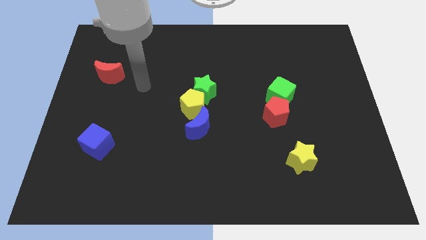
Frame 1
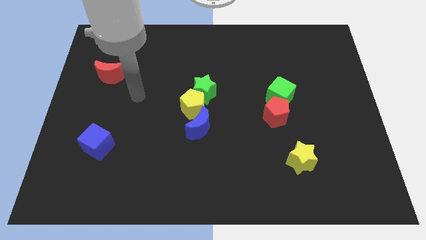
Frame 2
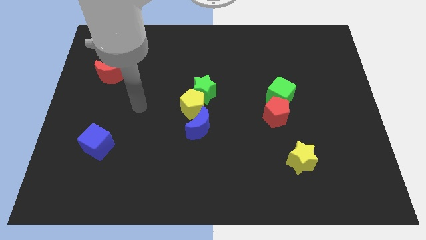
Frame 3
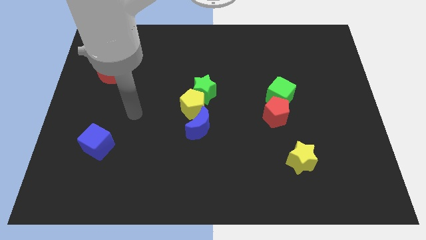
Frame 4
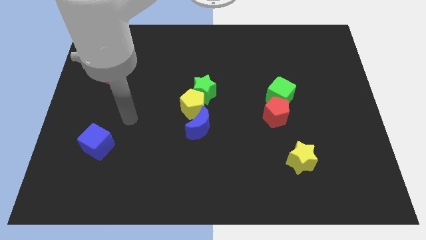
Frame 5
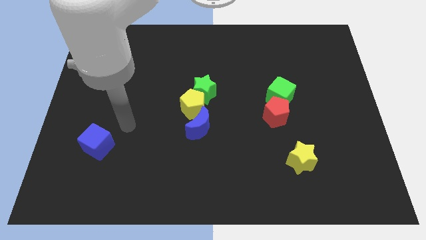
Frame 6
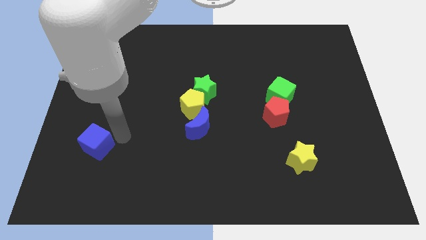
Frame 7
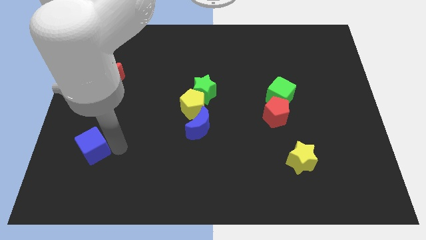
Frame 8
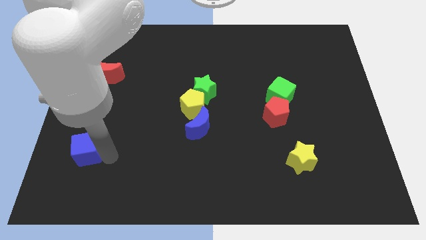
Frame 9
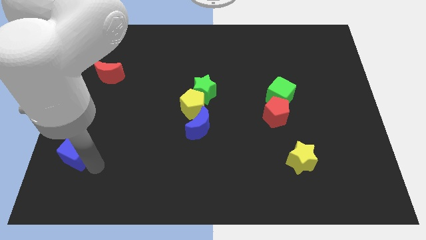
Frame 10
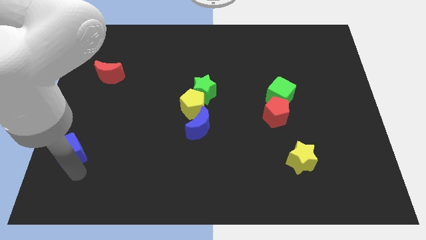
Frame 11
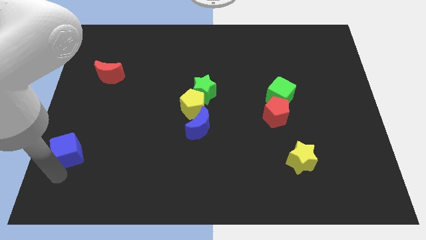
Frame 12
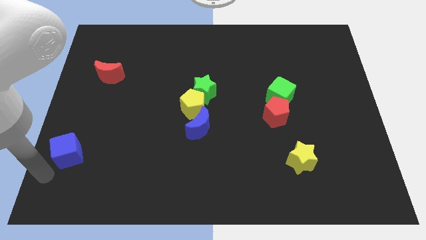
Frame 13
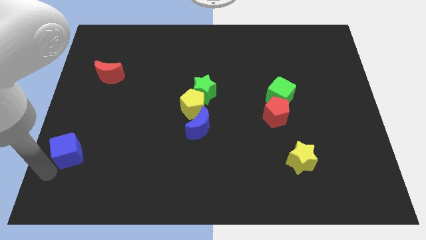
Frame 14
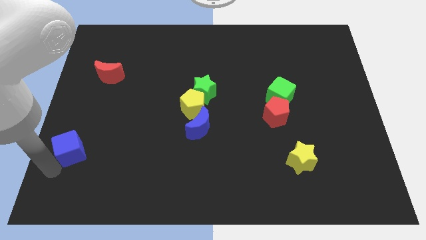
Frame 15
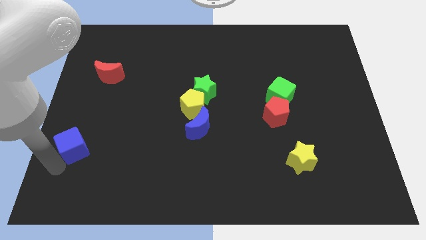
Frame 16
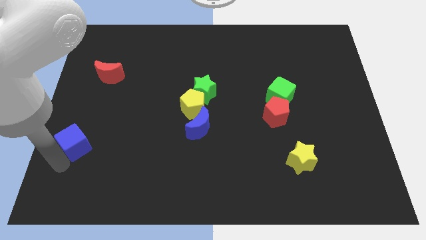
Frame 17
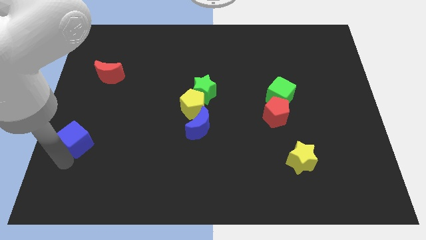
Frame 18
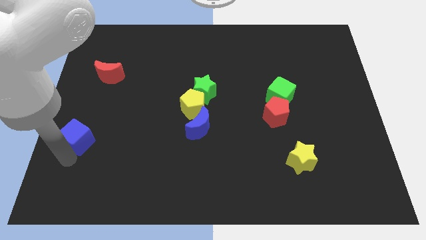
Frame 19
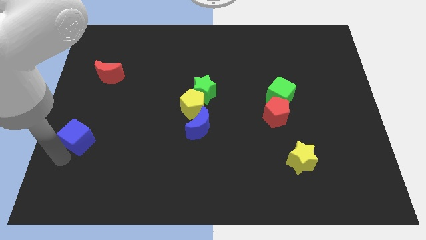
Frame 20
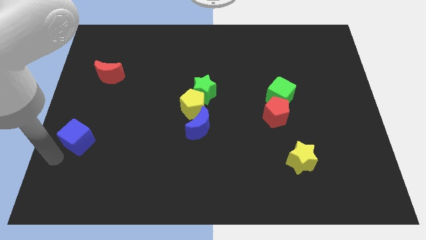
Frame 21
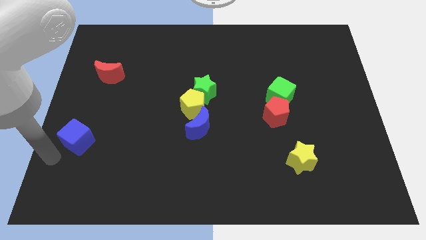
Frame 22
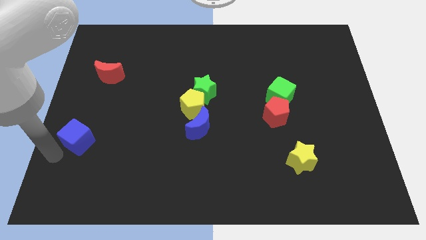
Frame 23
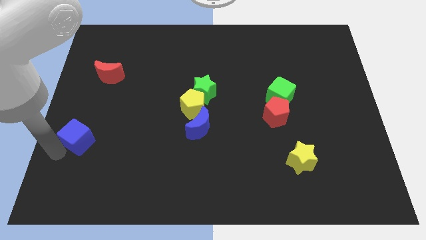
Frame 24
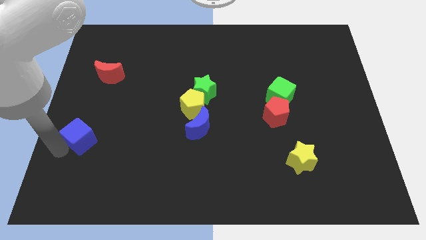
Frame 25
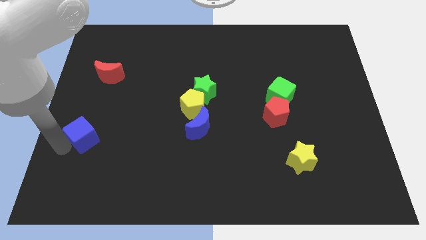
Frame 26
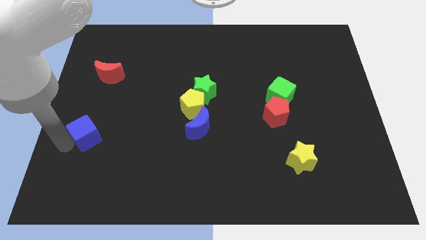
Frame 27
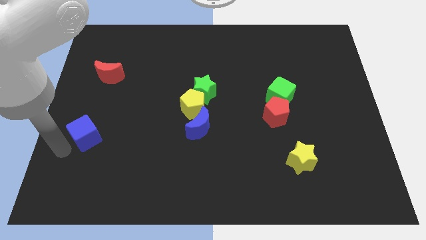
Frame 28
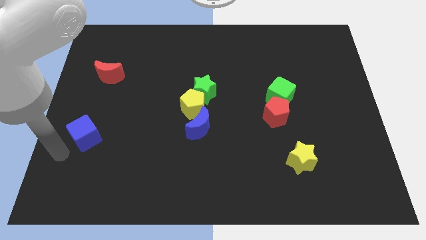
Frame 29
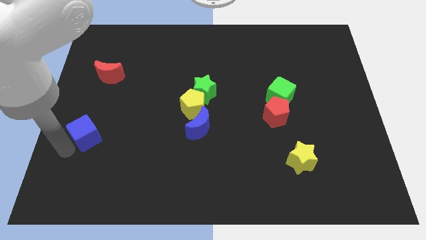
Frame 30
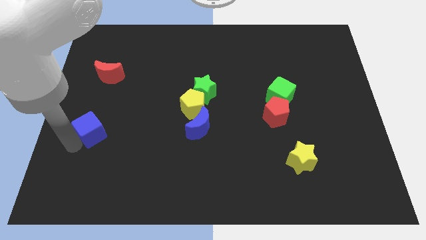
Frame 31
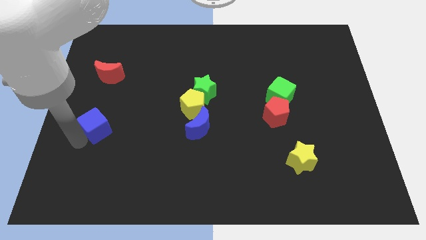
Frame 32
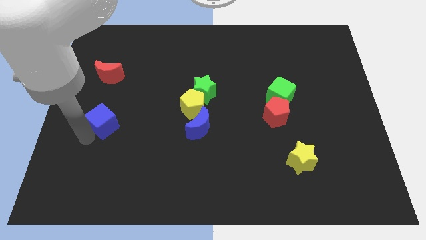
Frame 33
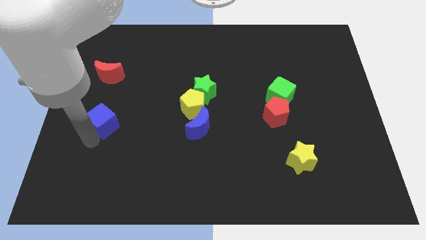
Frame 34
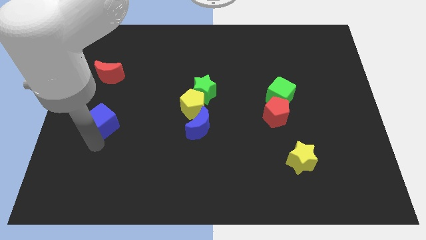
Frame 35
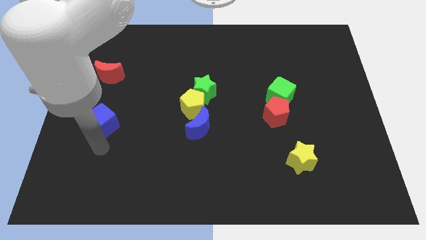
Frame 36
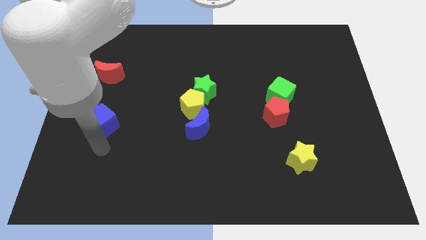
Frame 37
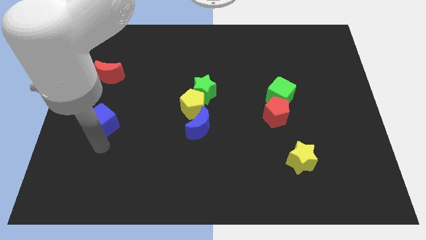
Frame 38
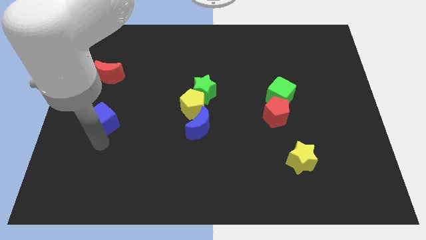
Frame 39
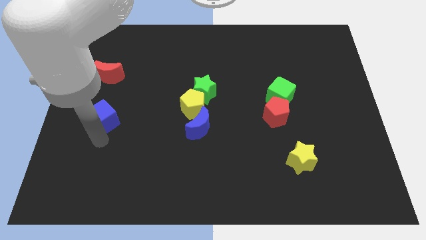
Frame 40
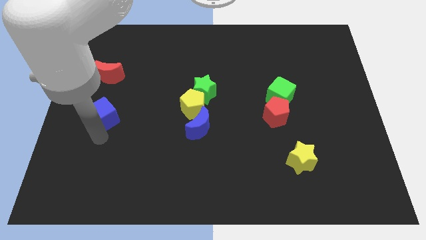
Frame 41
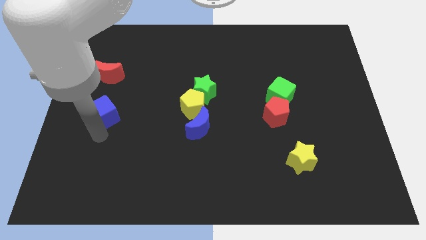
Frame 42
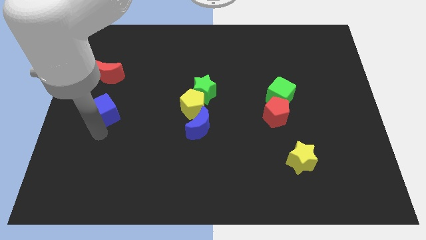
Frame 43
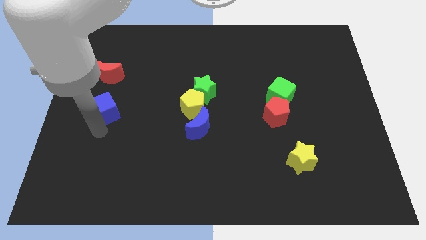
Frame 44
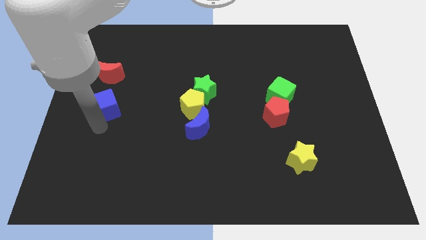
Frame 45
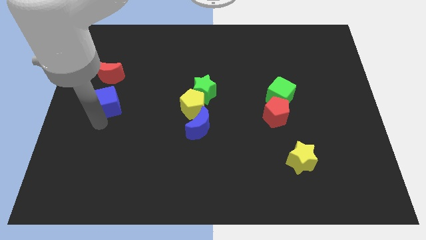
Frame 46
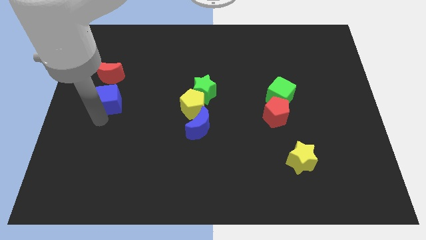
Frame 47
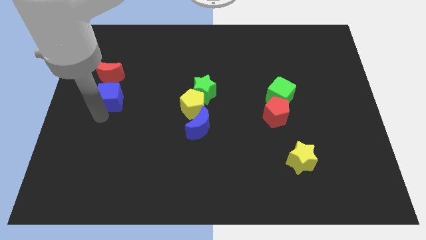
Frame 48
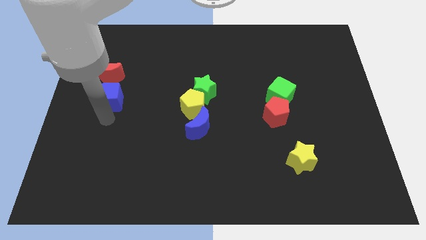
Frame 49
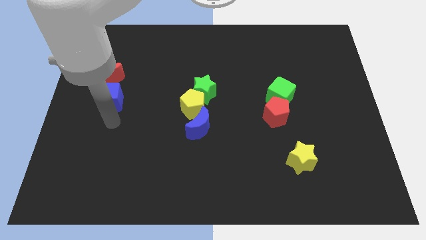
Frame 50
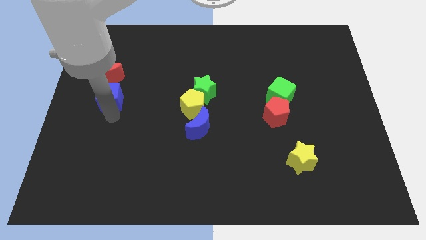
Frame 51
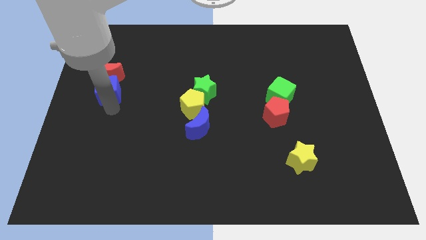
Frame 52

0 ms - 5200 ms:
push the blue cube to the red moon

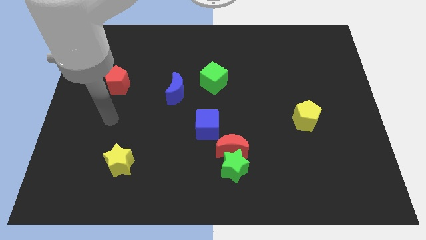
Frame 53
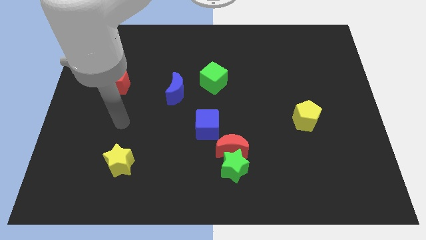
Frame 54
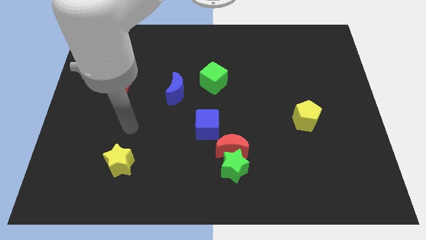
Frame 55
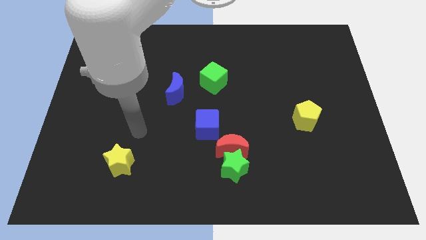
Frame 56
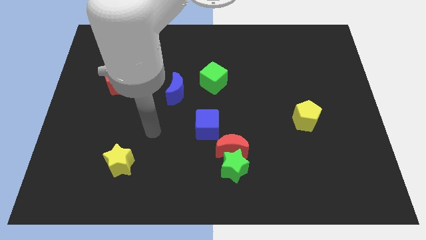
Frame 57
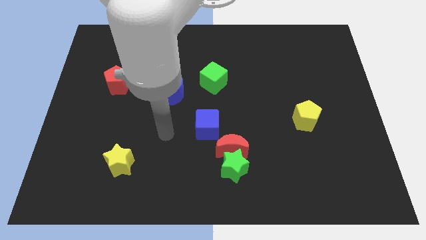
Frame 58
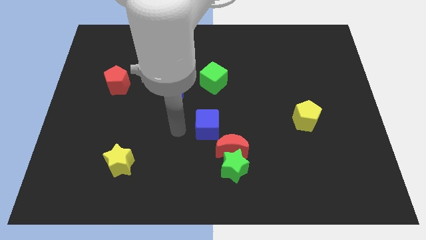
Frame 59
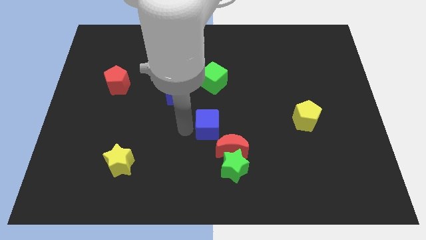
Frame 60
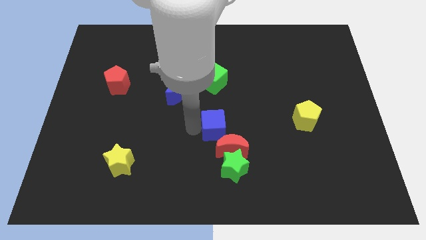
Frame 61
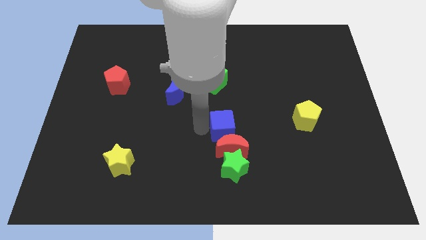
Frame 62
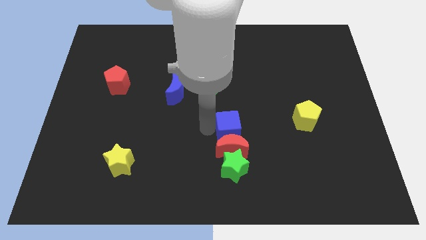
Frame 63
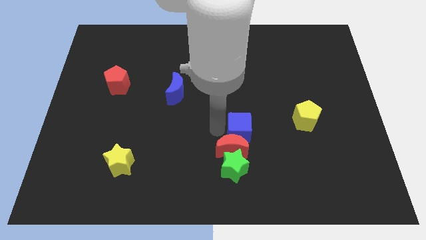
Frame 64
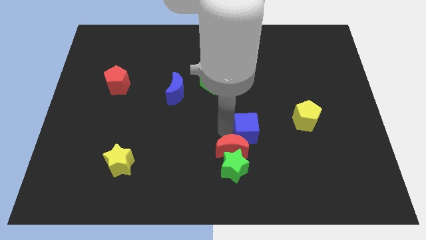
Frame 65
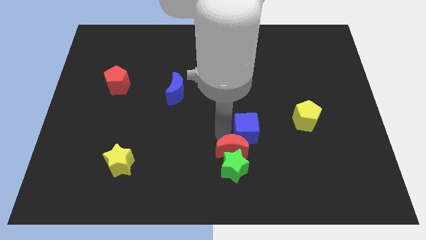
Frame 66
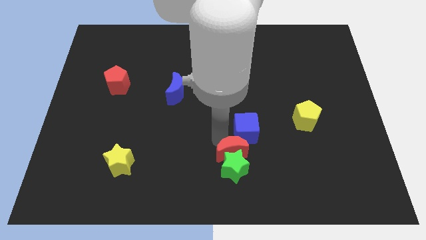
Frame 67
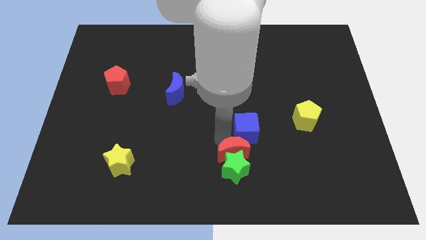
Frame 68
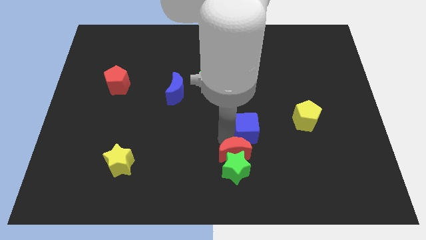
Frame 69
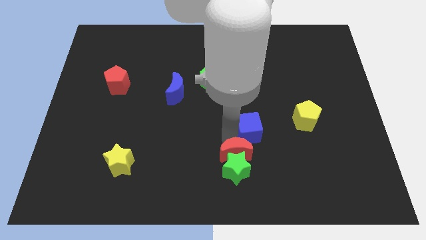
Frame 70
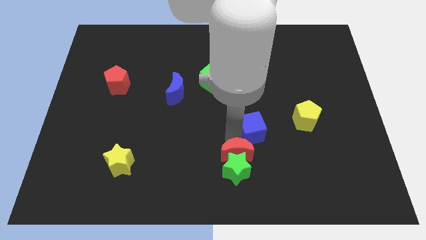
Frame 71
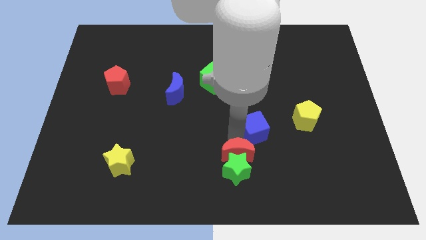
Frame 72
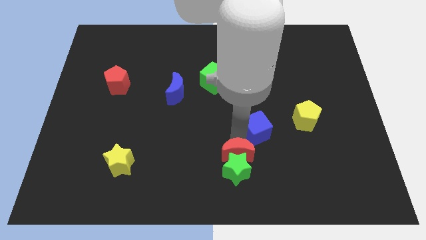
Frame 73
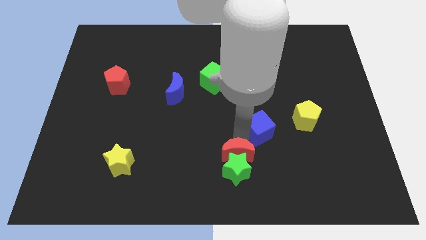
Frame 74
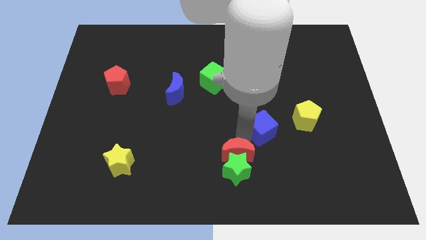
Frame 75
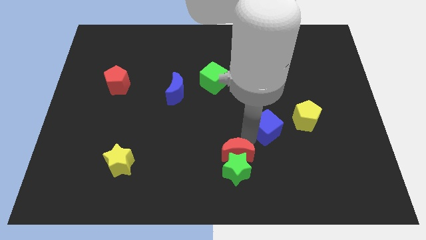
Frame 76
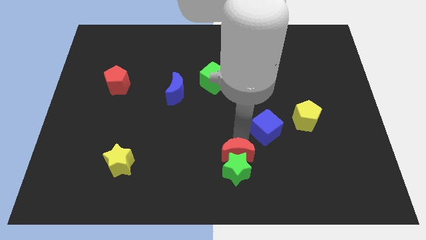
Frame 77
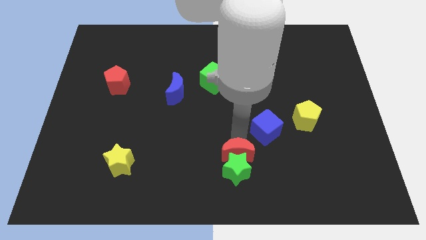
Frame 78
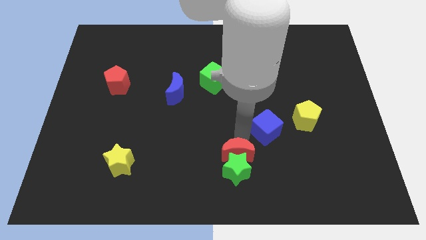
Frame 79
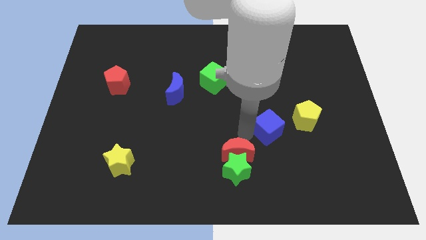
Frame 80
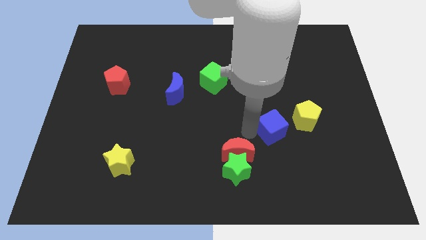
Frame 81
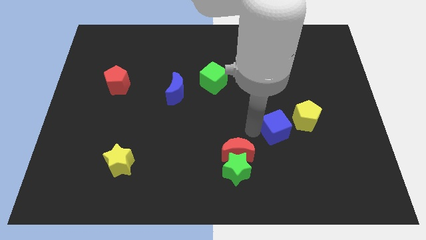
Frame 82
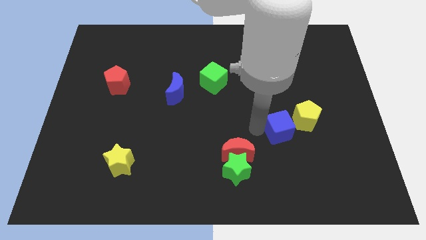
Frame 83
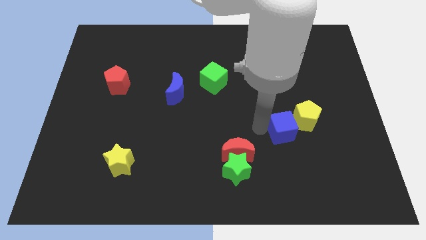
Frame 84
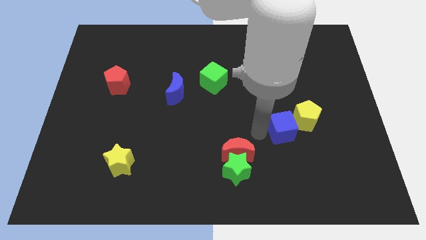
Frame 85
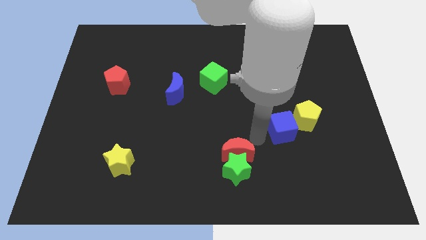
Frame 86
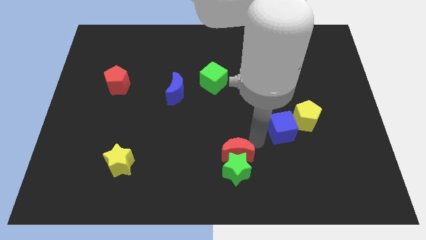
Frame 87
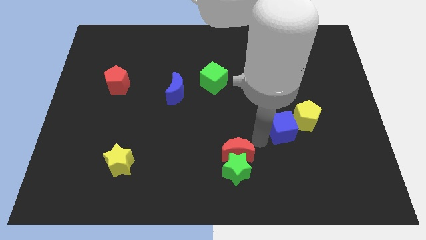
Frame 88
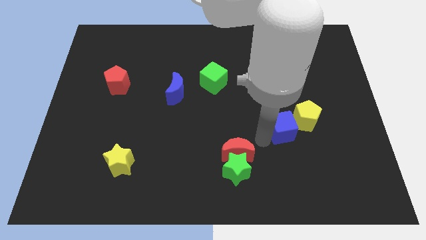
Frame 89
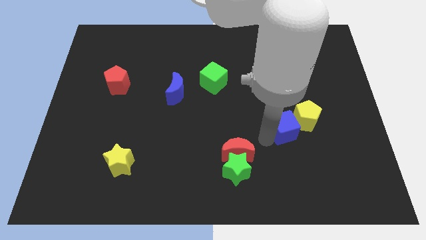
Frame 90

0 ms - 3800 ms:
push the blue cube to the yellow pentagon
